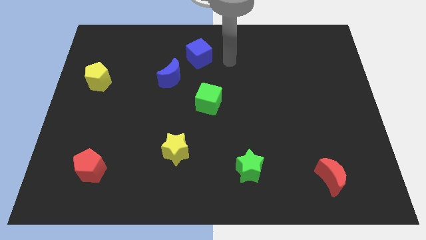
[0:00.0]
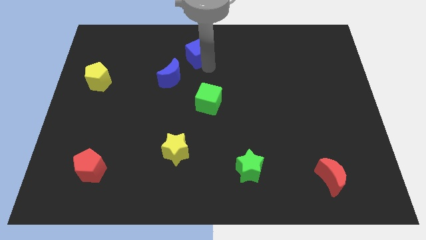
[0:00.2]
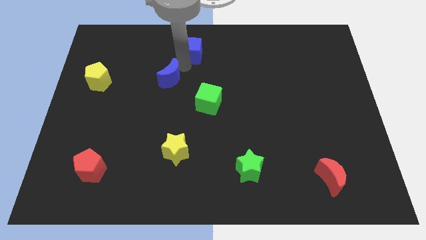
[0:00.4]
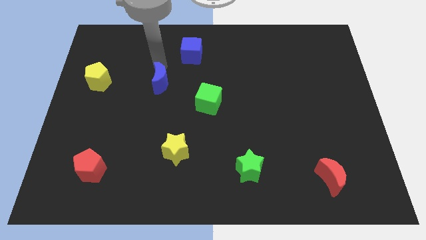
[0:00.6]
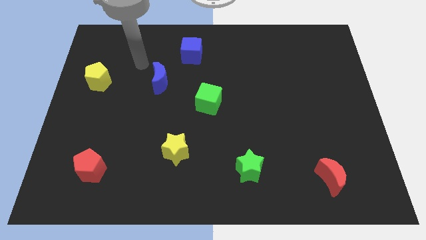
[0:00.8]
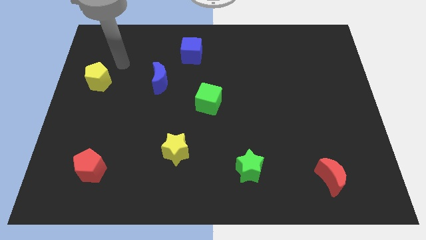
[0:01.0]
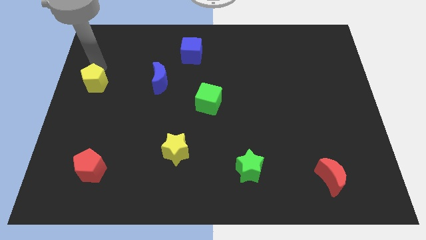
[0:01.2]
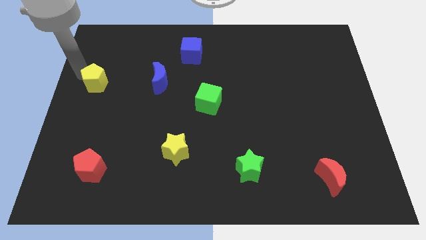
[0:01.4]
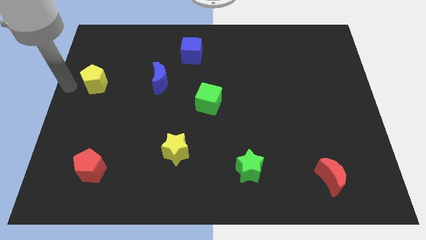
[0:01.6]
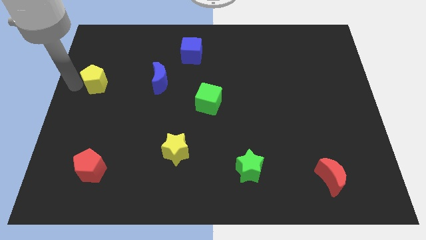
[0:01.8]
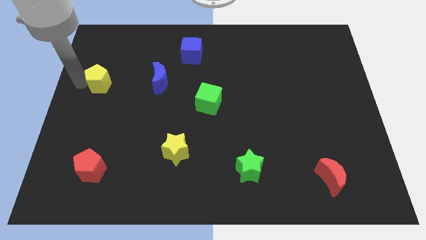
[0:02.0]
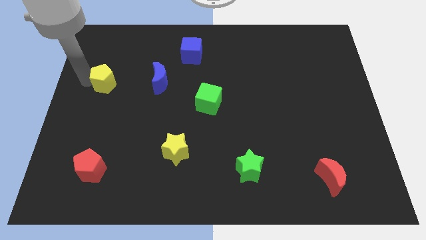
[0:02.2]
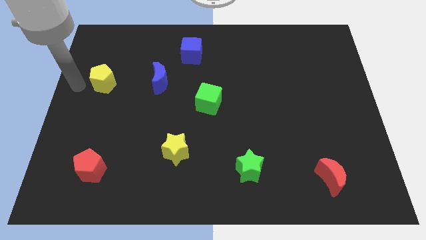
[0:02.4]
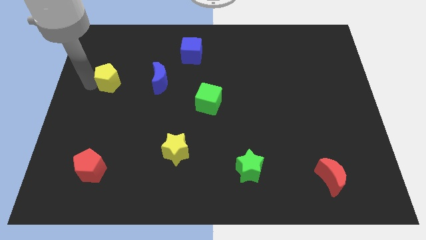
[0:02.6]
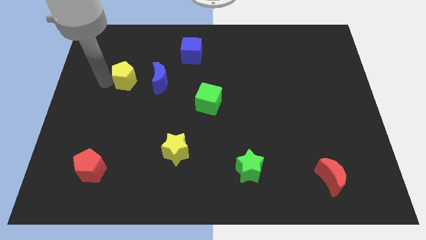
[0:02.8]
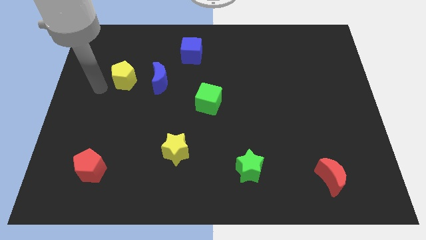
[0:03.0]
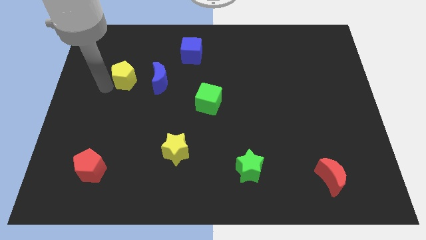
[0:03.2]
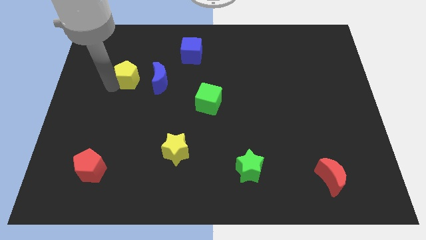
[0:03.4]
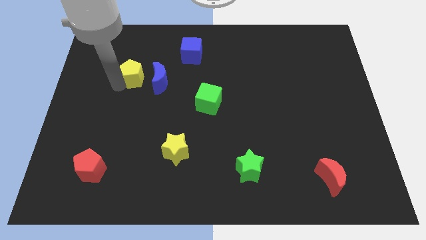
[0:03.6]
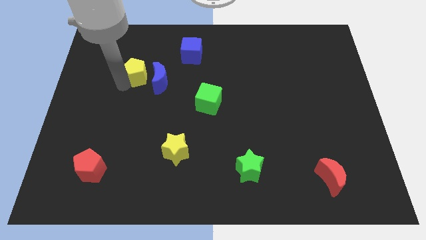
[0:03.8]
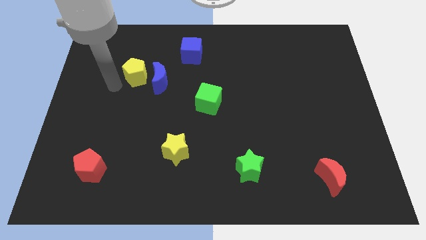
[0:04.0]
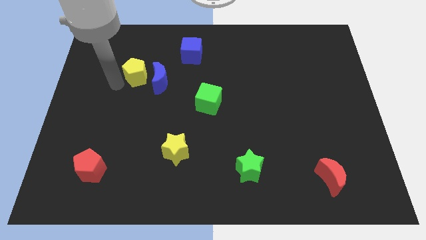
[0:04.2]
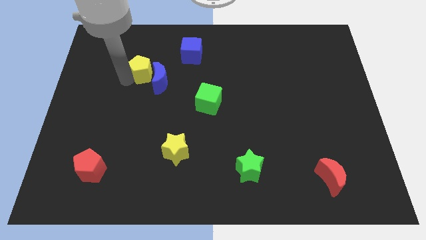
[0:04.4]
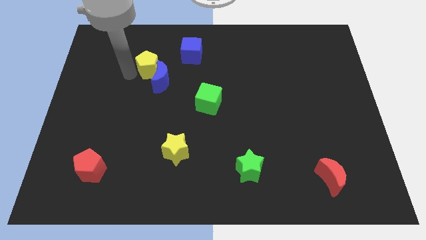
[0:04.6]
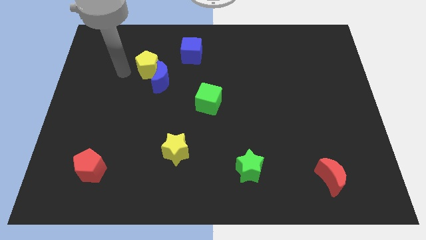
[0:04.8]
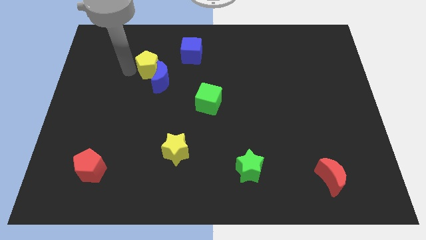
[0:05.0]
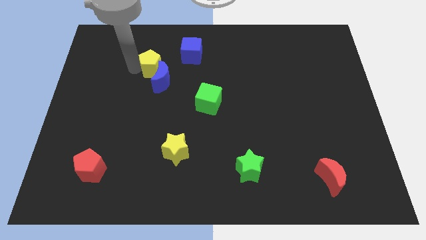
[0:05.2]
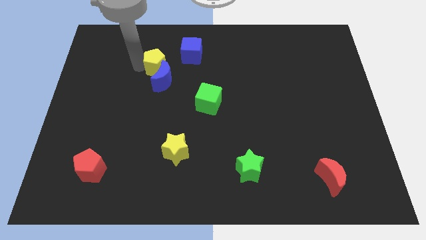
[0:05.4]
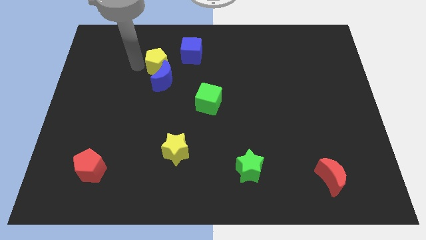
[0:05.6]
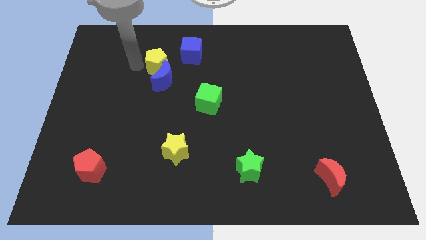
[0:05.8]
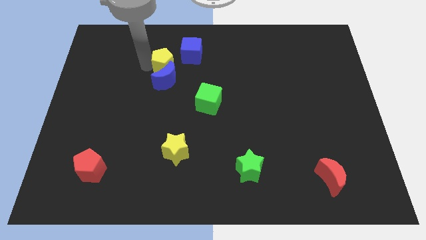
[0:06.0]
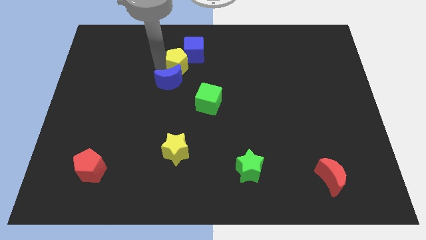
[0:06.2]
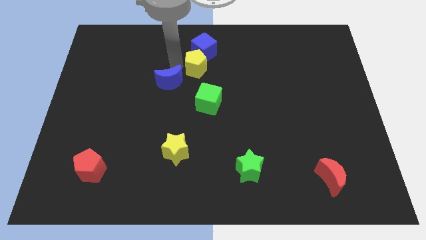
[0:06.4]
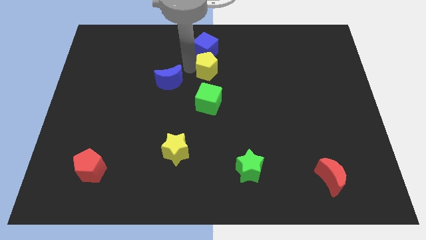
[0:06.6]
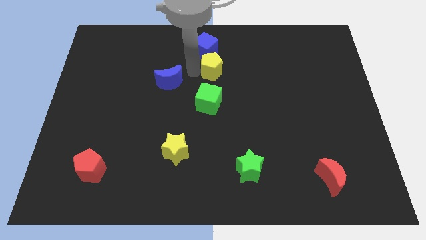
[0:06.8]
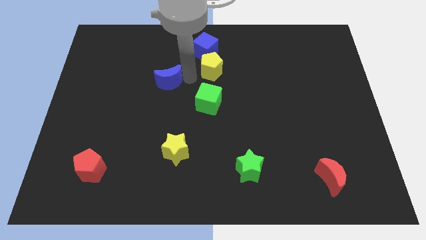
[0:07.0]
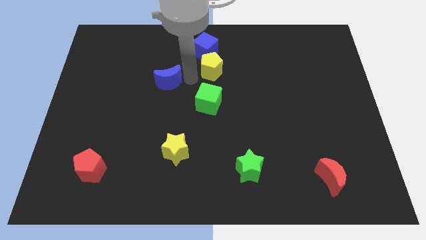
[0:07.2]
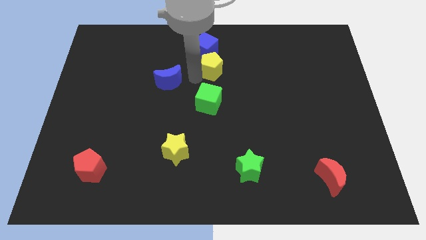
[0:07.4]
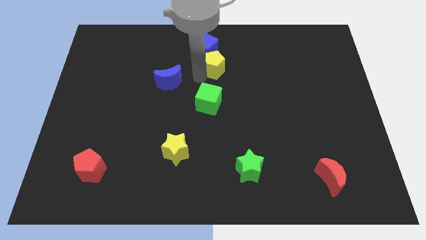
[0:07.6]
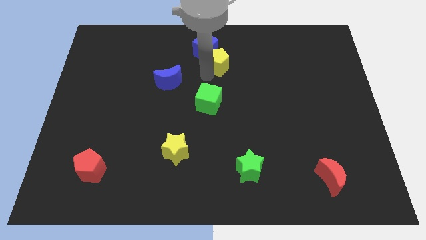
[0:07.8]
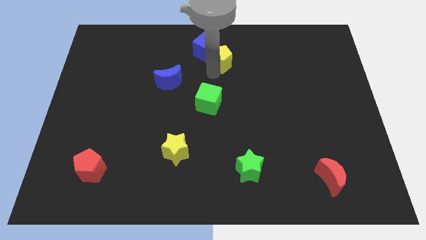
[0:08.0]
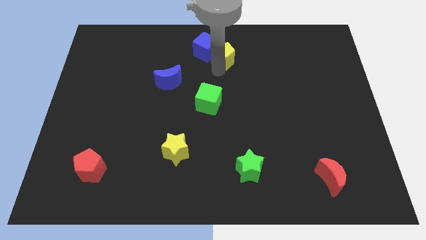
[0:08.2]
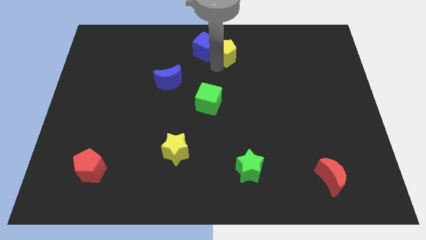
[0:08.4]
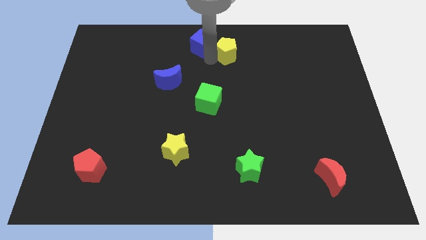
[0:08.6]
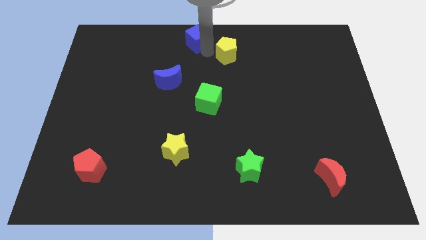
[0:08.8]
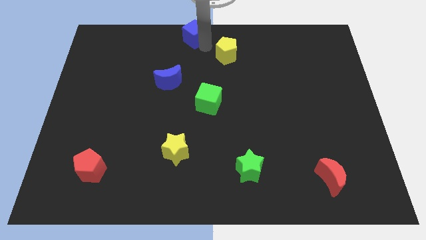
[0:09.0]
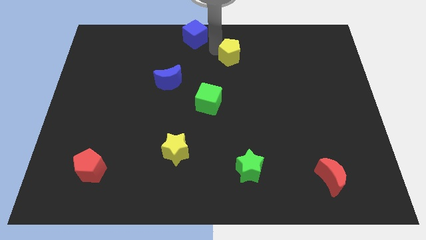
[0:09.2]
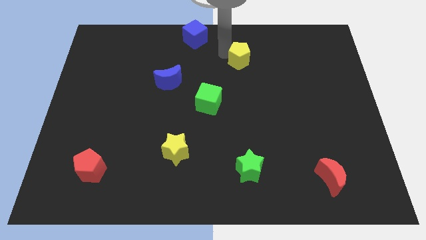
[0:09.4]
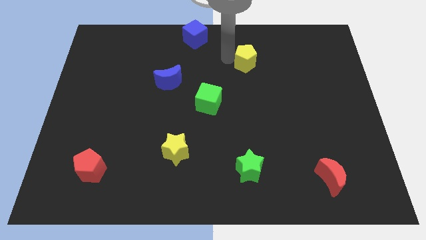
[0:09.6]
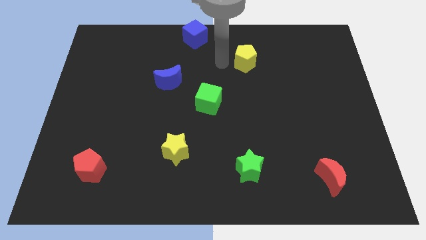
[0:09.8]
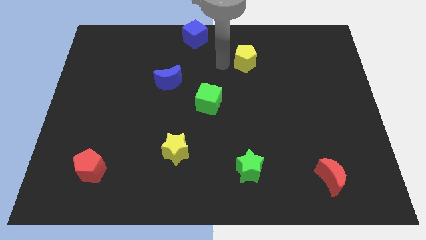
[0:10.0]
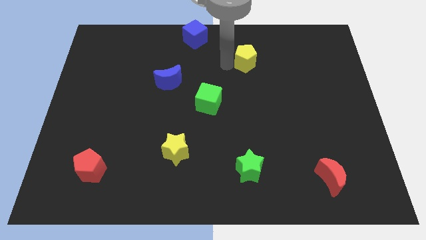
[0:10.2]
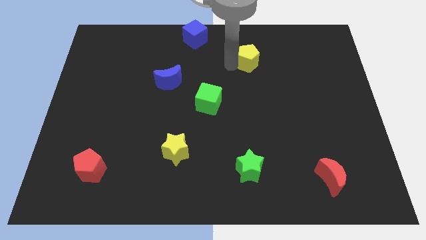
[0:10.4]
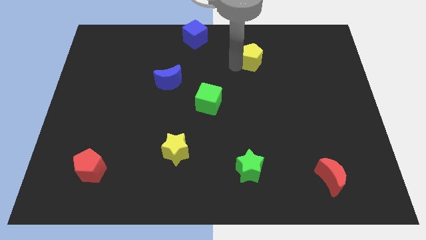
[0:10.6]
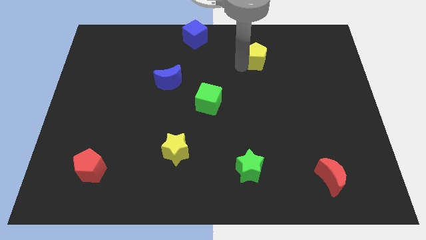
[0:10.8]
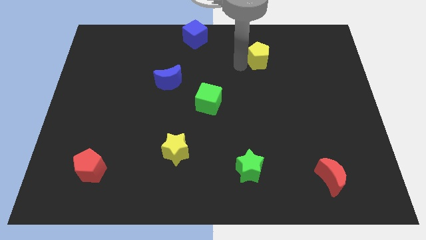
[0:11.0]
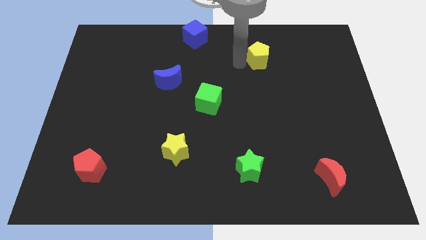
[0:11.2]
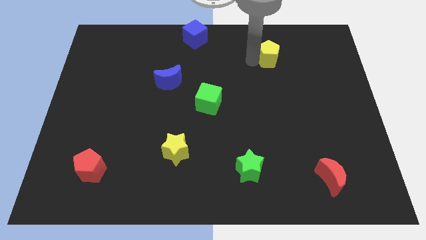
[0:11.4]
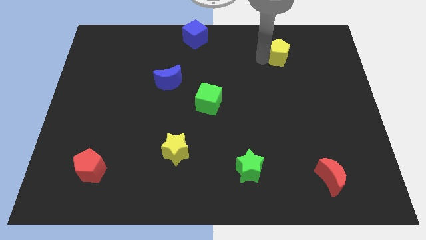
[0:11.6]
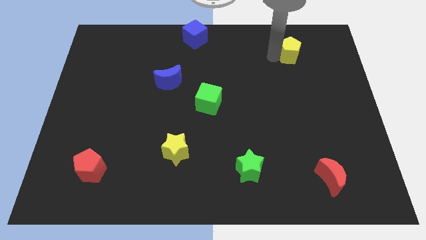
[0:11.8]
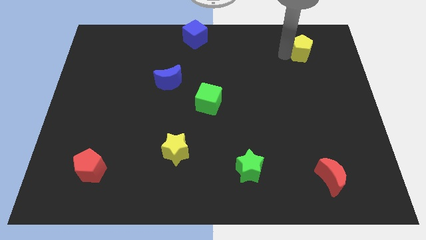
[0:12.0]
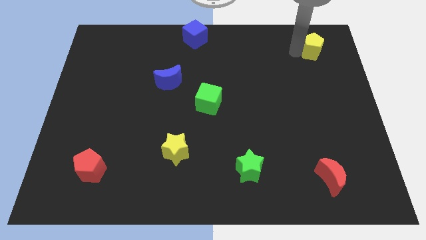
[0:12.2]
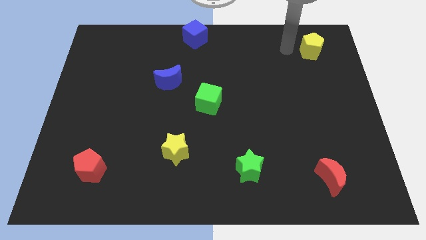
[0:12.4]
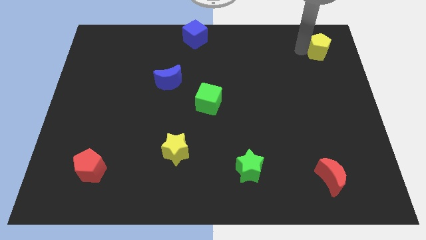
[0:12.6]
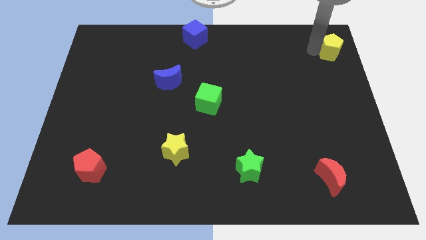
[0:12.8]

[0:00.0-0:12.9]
move the yellow pentagon to the top right corner
